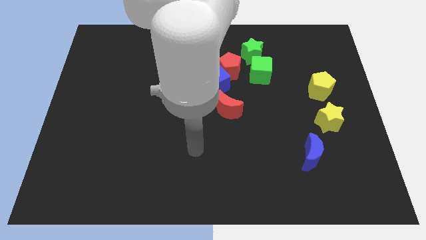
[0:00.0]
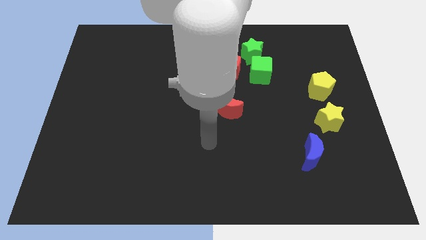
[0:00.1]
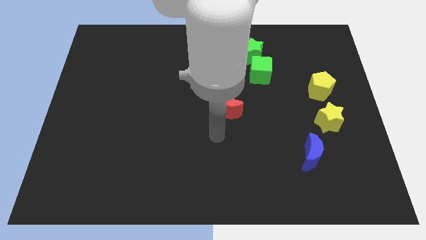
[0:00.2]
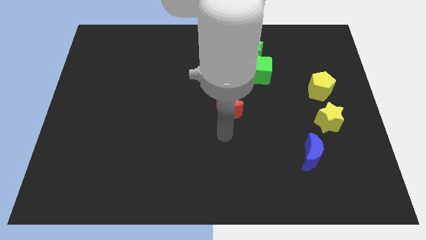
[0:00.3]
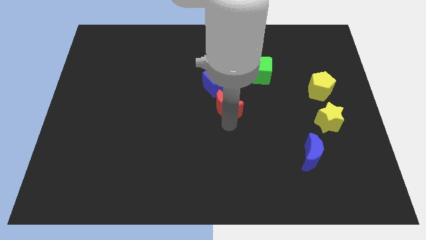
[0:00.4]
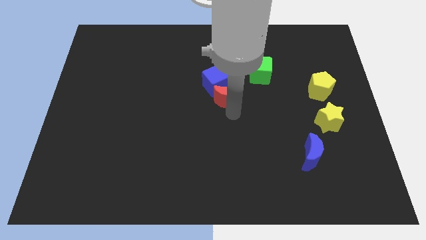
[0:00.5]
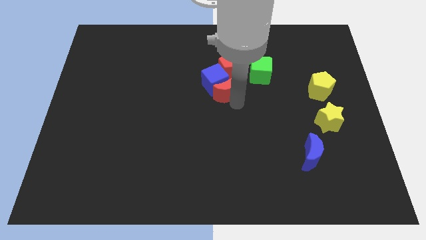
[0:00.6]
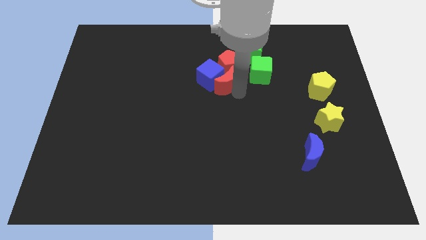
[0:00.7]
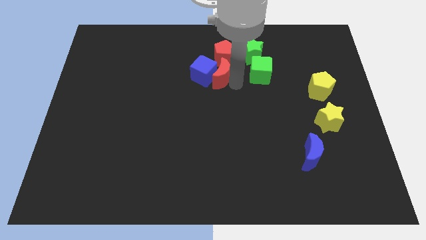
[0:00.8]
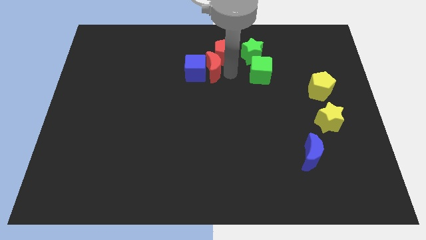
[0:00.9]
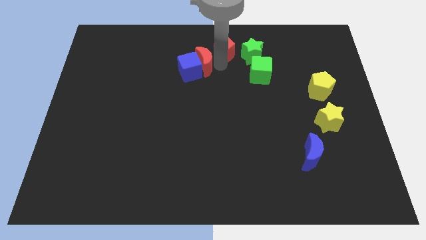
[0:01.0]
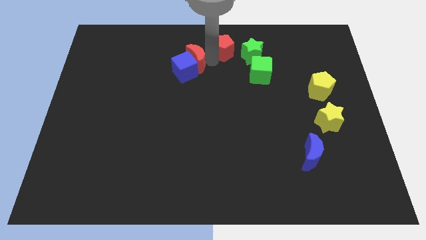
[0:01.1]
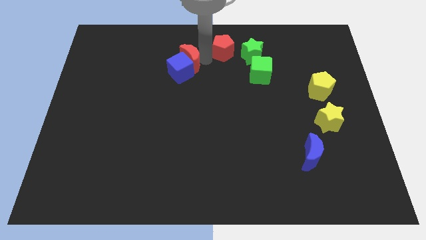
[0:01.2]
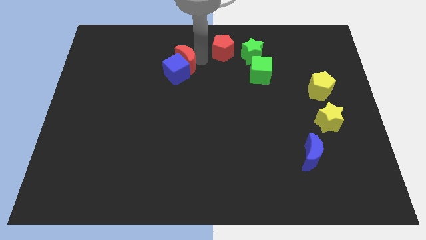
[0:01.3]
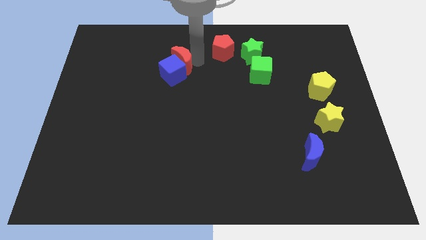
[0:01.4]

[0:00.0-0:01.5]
move the blue cube away from the red pentagon and red moon

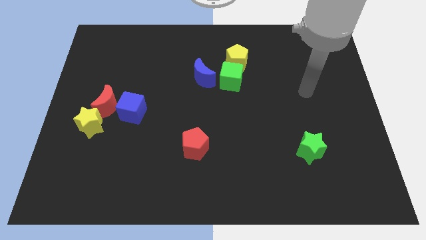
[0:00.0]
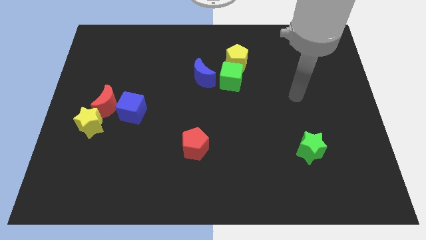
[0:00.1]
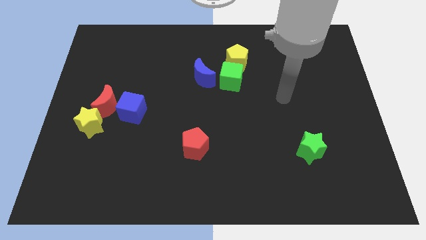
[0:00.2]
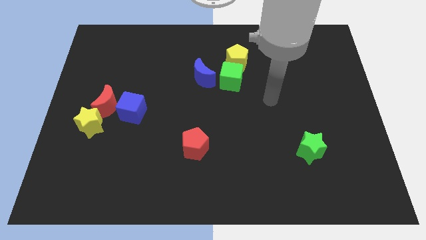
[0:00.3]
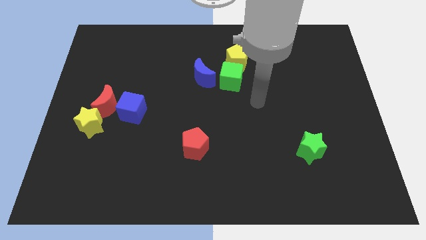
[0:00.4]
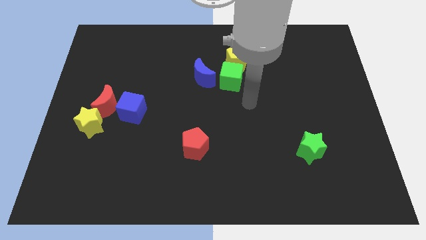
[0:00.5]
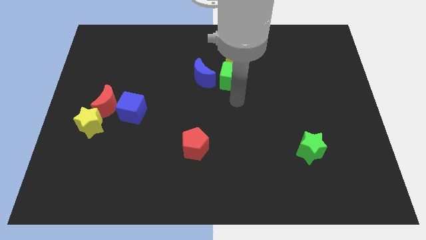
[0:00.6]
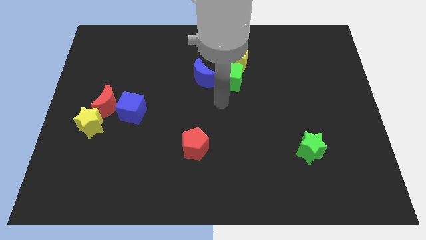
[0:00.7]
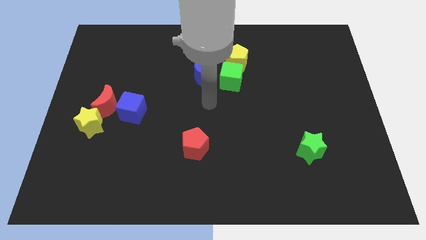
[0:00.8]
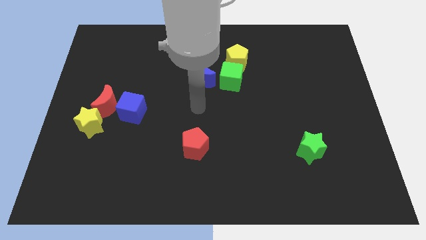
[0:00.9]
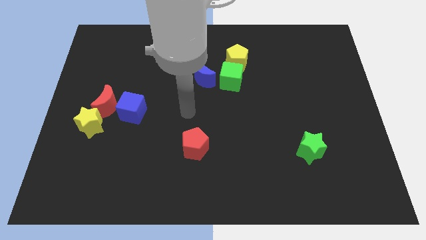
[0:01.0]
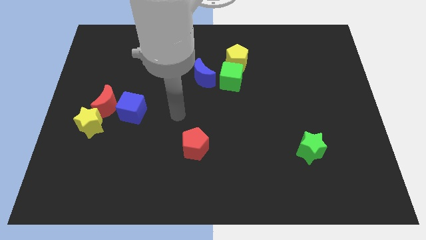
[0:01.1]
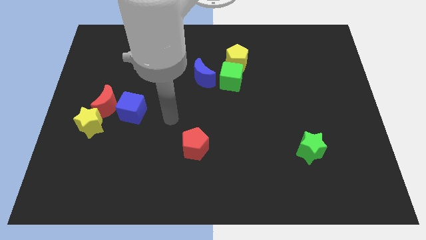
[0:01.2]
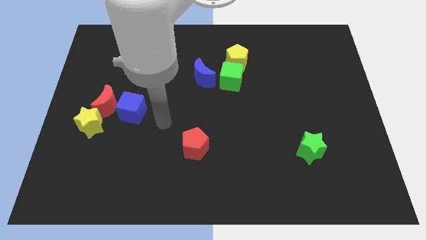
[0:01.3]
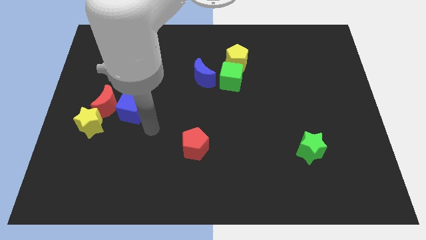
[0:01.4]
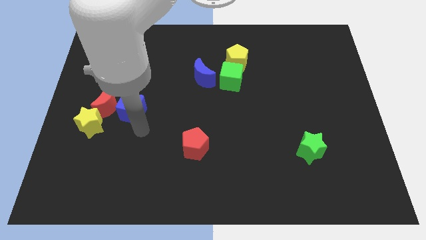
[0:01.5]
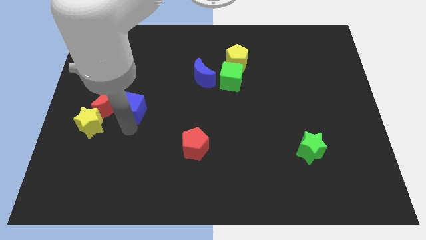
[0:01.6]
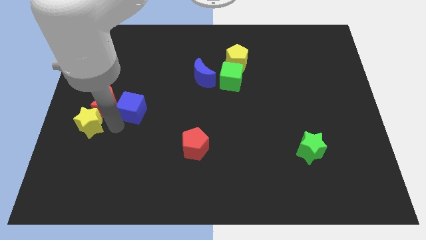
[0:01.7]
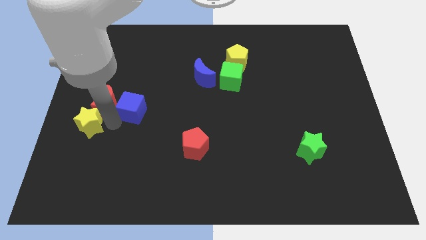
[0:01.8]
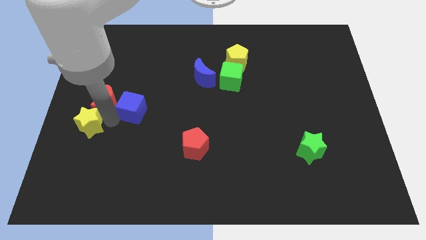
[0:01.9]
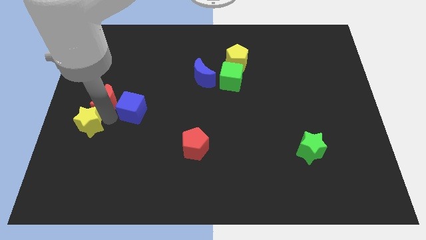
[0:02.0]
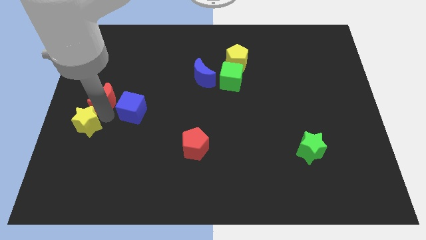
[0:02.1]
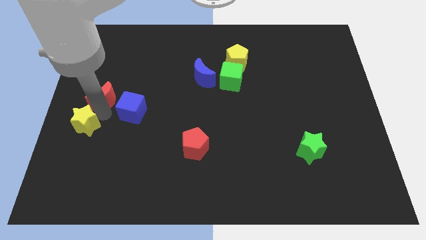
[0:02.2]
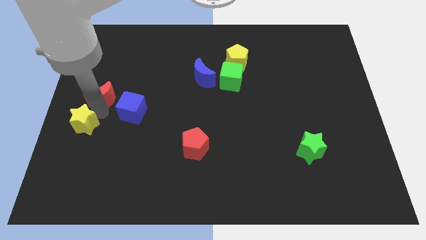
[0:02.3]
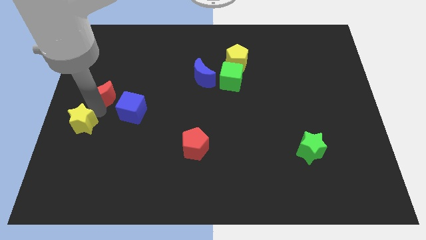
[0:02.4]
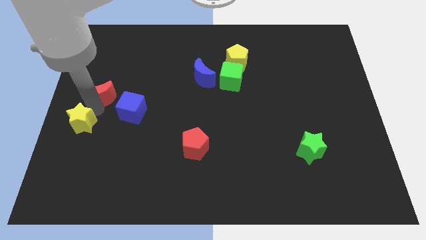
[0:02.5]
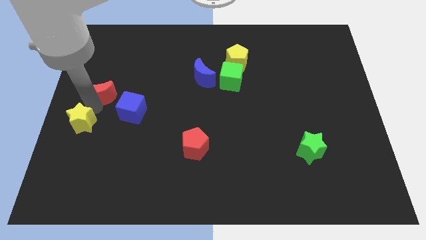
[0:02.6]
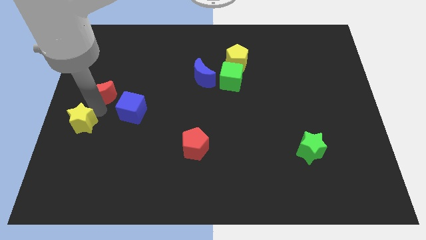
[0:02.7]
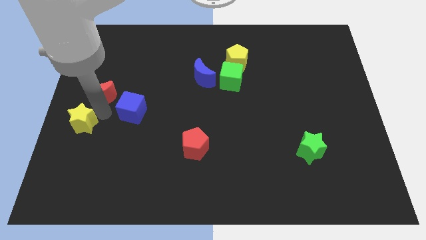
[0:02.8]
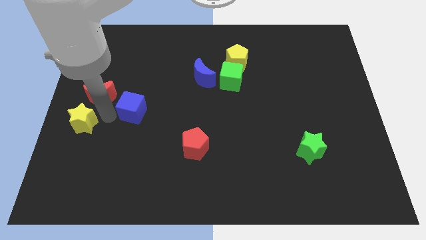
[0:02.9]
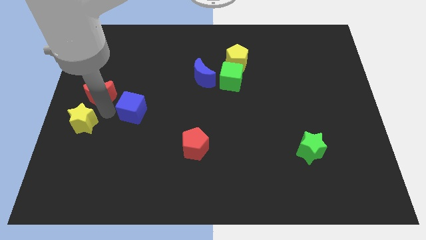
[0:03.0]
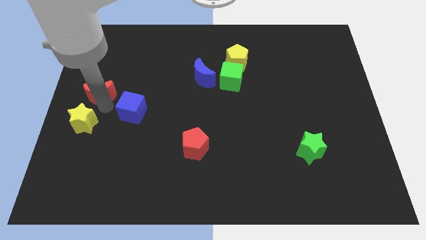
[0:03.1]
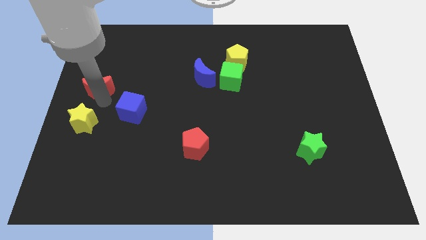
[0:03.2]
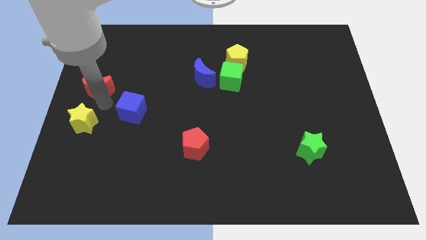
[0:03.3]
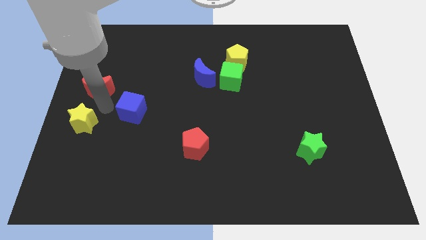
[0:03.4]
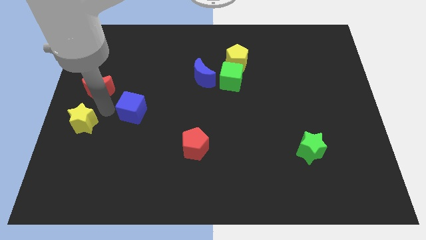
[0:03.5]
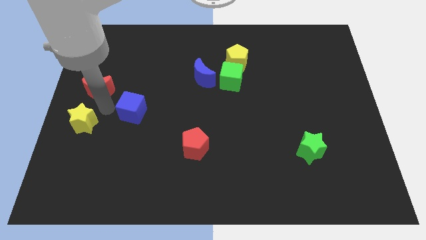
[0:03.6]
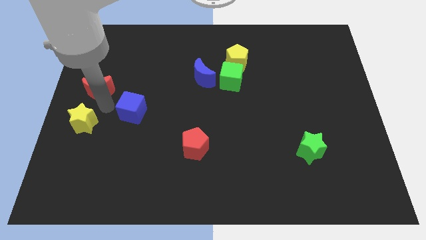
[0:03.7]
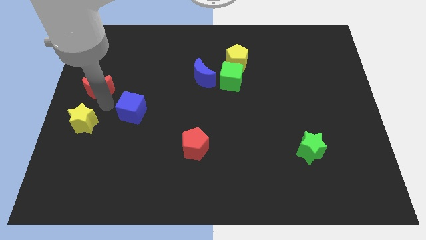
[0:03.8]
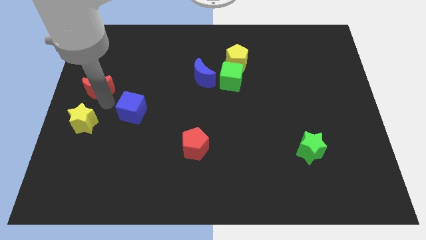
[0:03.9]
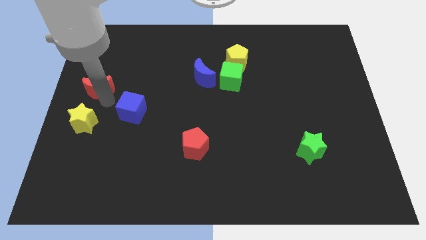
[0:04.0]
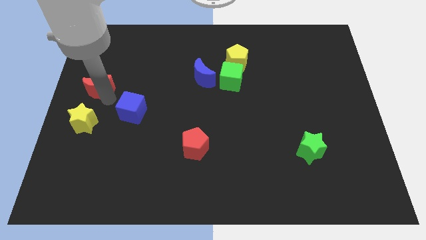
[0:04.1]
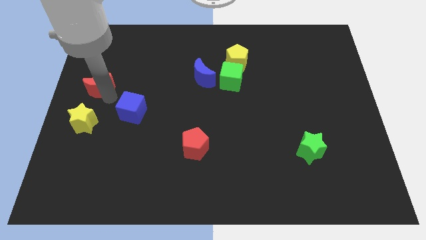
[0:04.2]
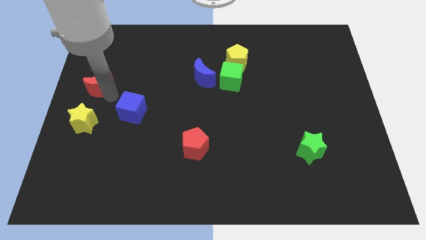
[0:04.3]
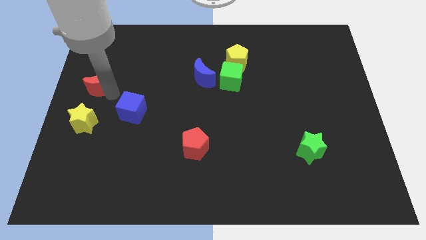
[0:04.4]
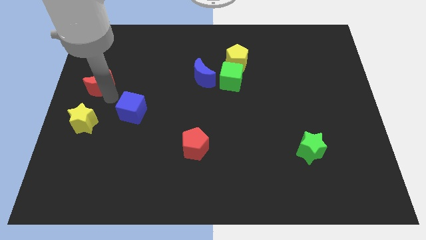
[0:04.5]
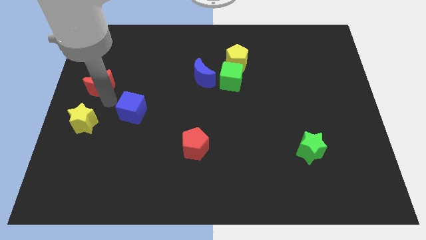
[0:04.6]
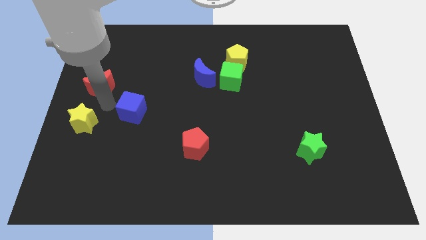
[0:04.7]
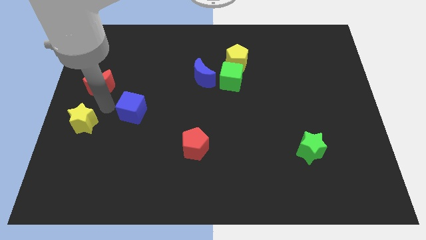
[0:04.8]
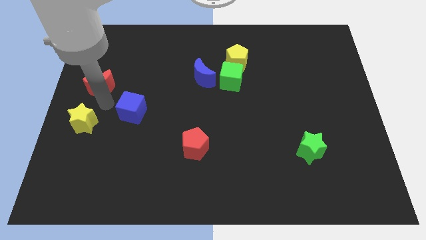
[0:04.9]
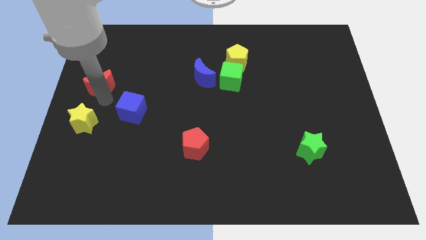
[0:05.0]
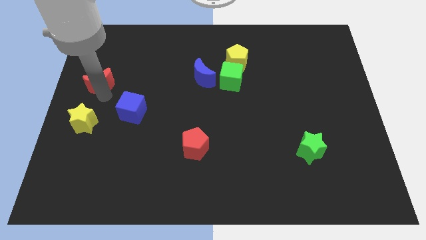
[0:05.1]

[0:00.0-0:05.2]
move the red moon away from the blue cube and yellow star

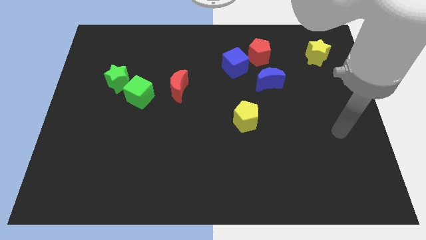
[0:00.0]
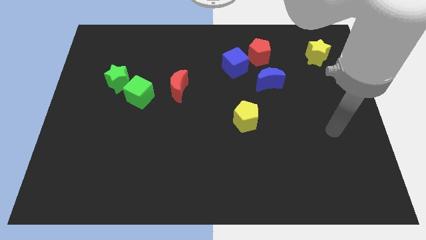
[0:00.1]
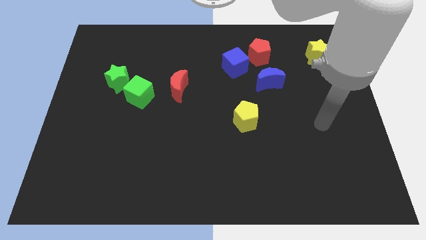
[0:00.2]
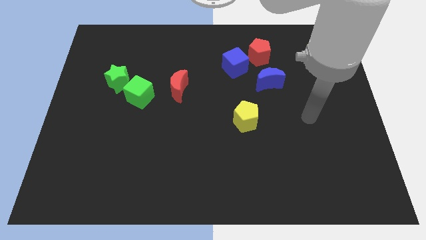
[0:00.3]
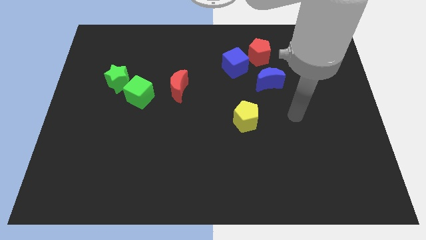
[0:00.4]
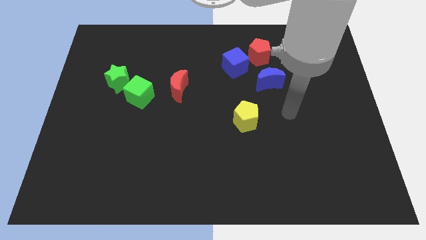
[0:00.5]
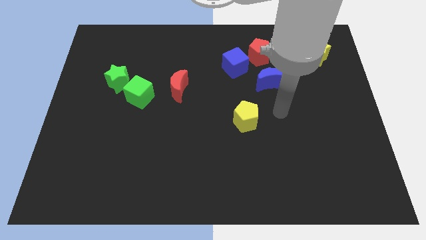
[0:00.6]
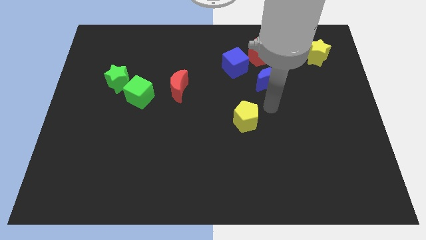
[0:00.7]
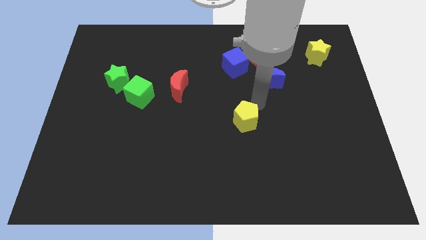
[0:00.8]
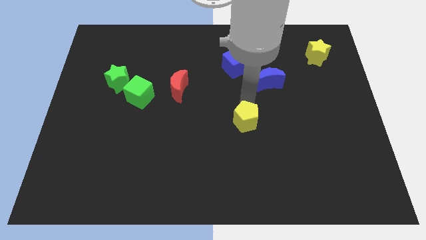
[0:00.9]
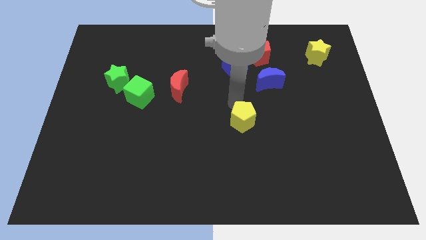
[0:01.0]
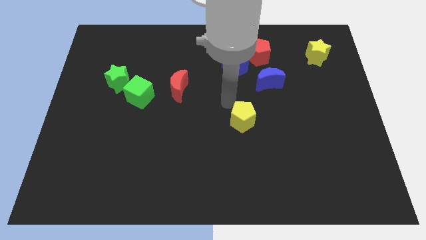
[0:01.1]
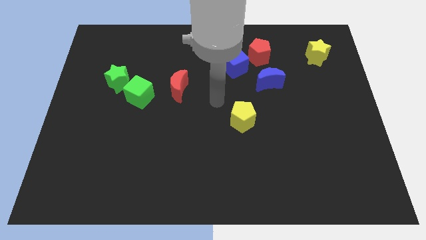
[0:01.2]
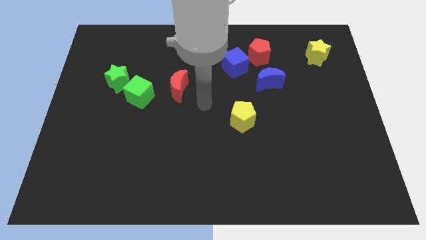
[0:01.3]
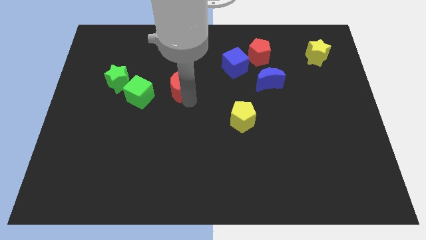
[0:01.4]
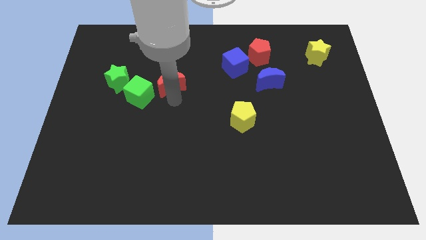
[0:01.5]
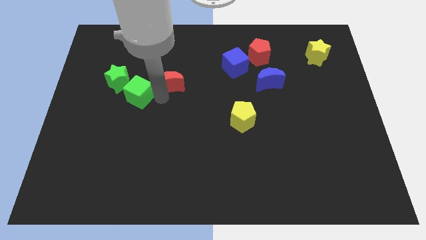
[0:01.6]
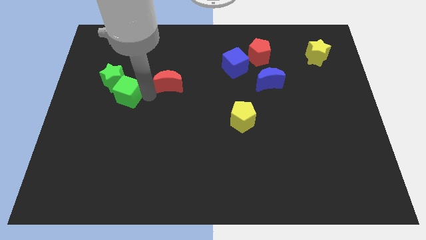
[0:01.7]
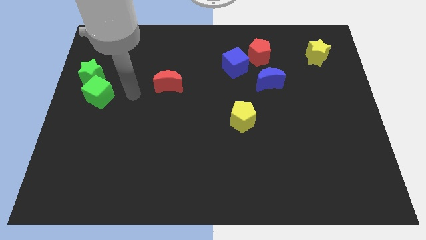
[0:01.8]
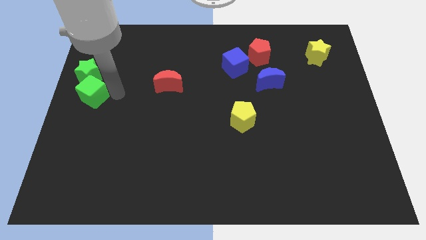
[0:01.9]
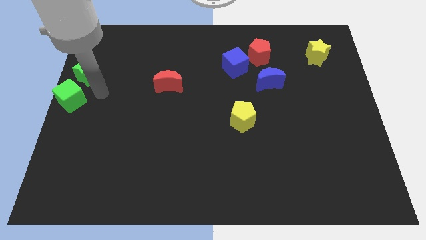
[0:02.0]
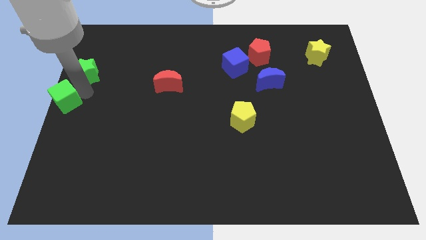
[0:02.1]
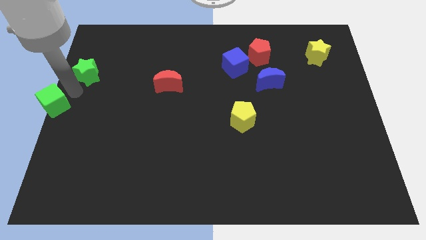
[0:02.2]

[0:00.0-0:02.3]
move the green star away from the green cube

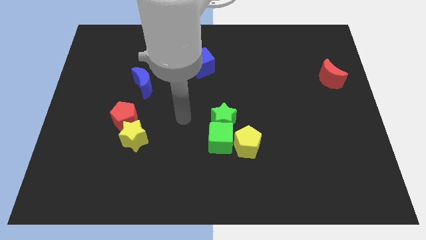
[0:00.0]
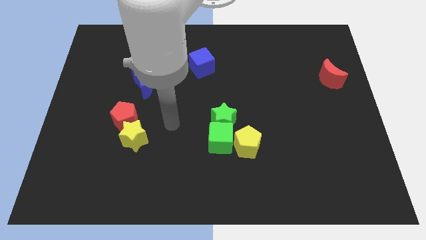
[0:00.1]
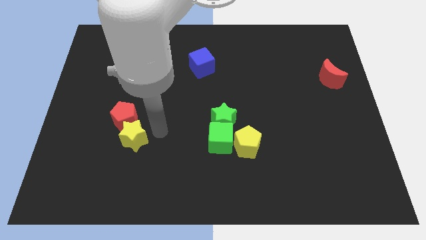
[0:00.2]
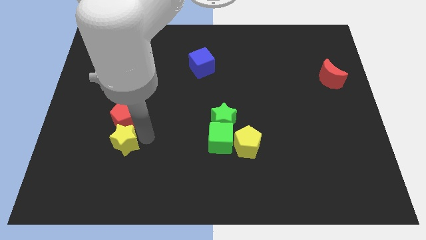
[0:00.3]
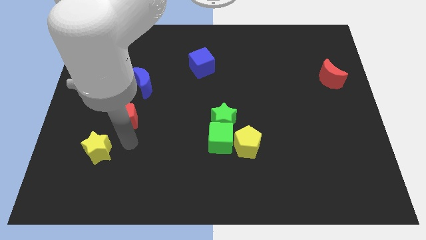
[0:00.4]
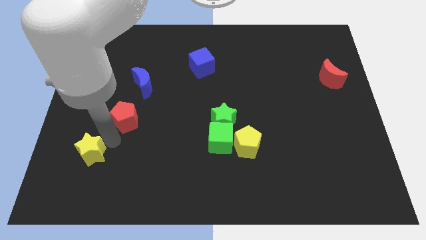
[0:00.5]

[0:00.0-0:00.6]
separate the red pentagon from the yellow star

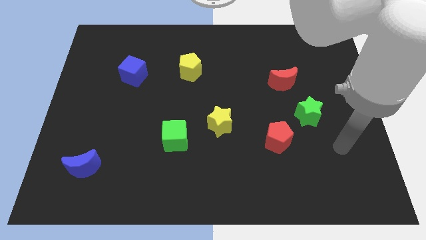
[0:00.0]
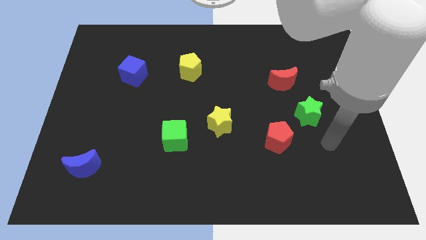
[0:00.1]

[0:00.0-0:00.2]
separate the red pentagon from the green star
